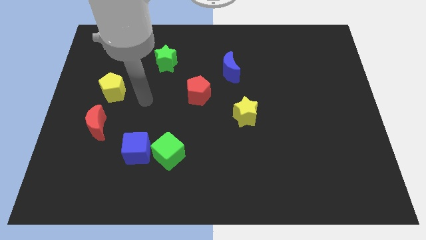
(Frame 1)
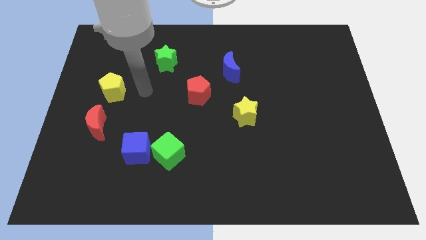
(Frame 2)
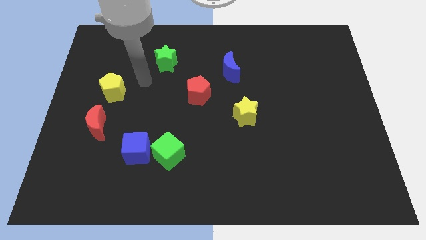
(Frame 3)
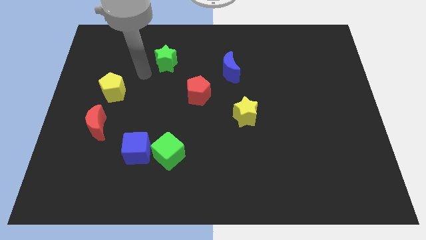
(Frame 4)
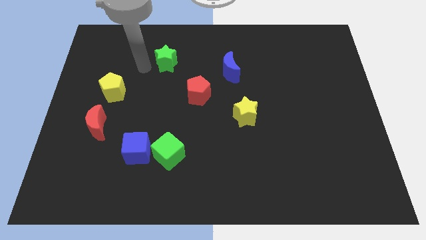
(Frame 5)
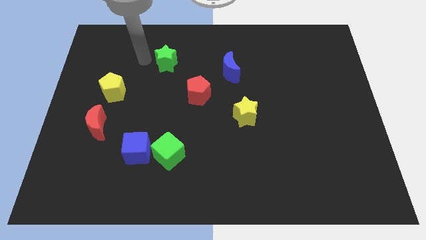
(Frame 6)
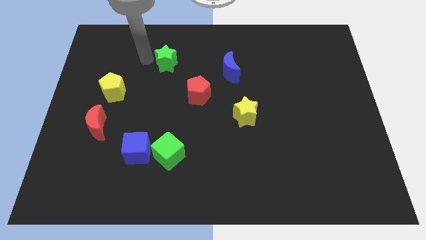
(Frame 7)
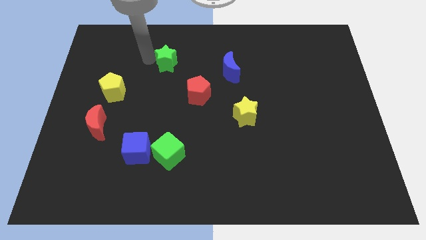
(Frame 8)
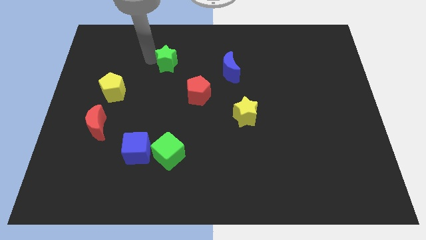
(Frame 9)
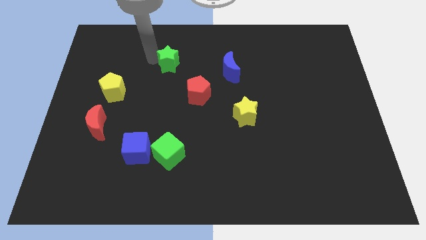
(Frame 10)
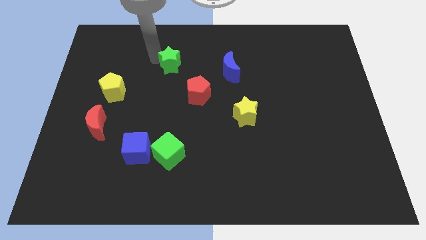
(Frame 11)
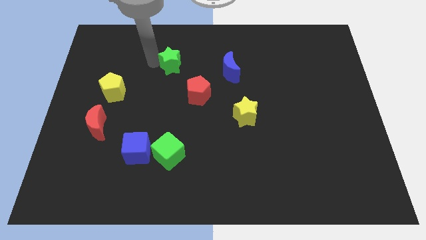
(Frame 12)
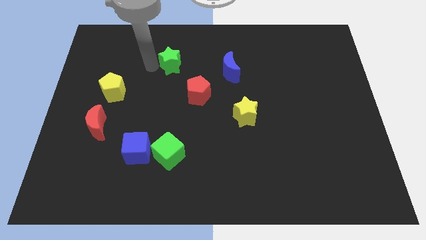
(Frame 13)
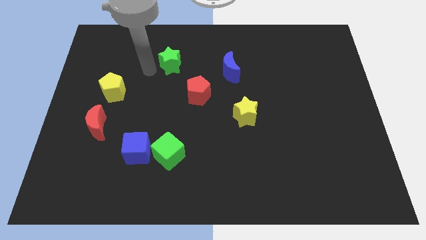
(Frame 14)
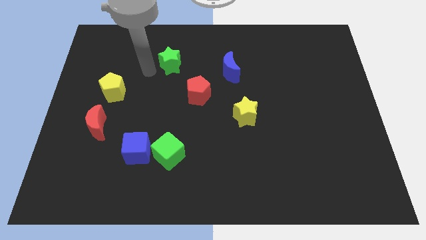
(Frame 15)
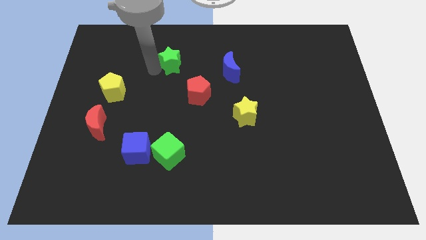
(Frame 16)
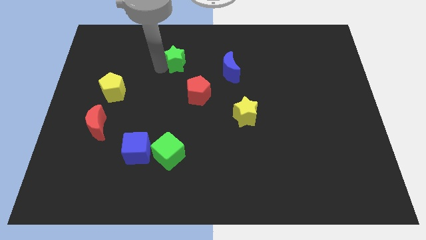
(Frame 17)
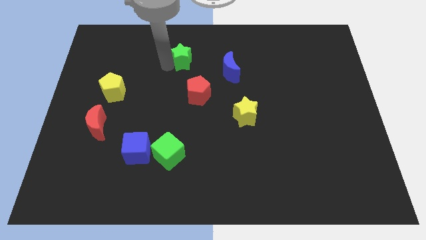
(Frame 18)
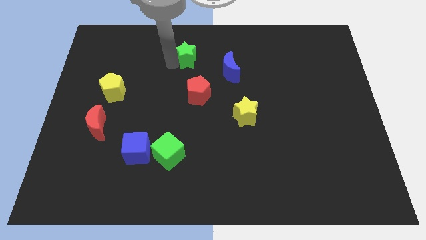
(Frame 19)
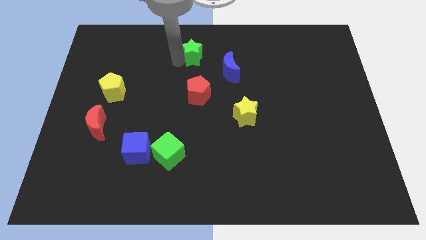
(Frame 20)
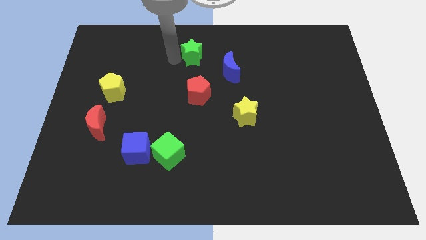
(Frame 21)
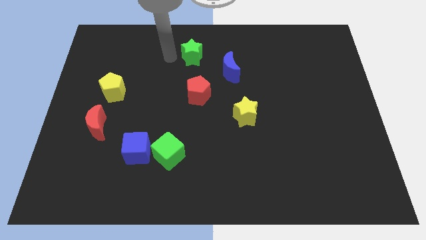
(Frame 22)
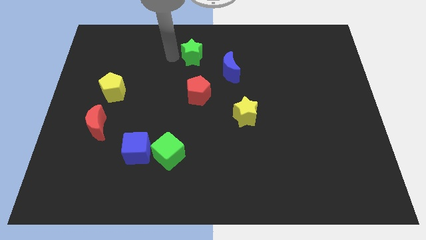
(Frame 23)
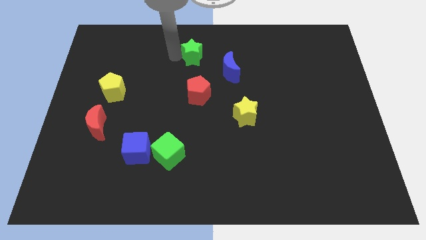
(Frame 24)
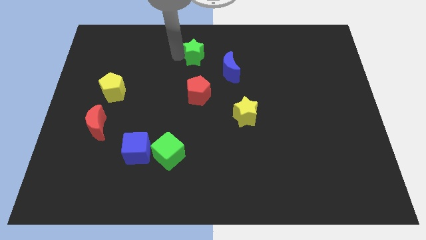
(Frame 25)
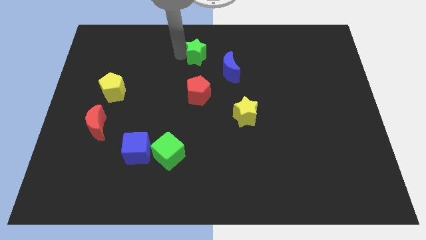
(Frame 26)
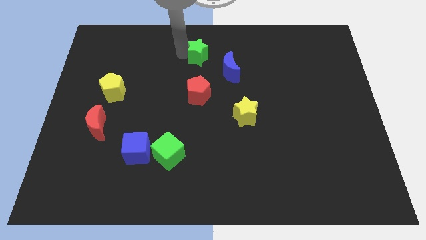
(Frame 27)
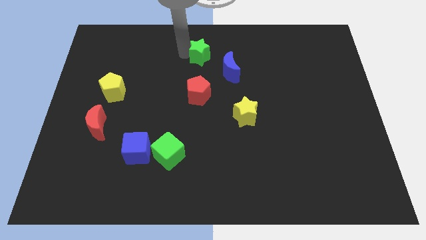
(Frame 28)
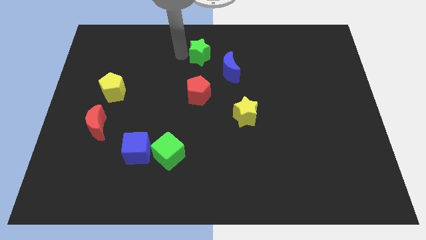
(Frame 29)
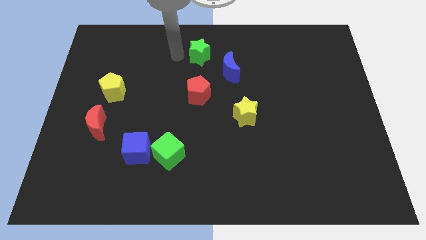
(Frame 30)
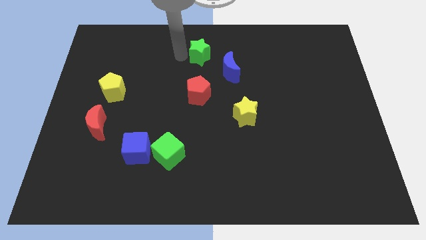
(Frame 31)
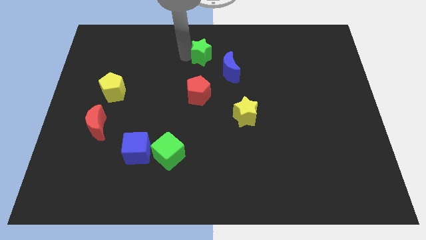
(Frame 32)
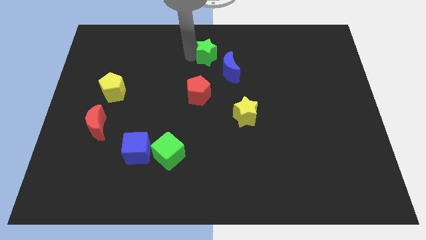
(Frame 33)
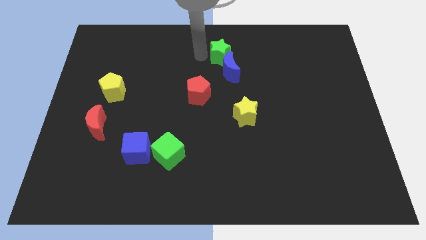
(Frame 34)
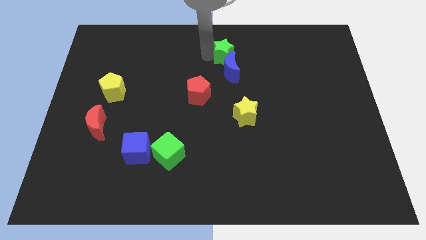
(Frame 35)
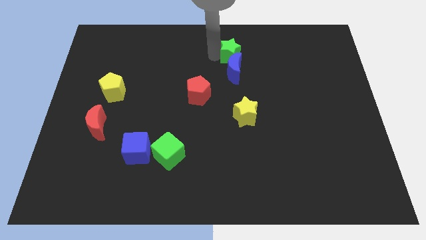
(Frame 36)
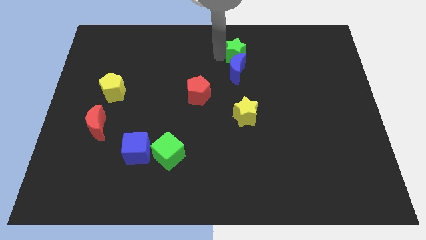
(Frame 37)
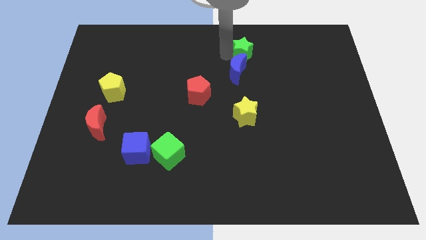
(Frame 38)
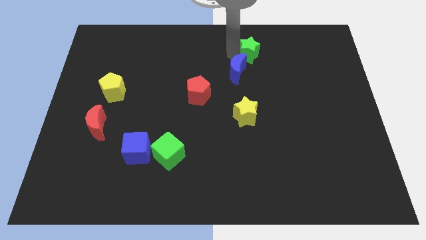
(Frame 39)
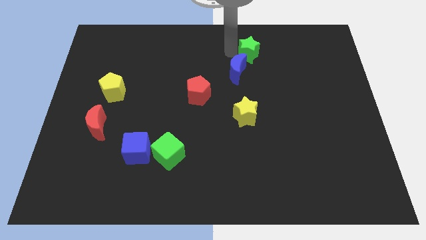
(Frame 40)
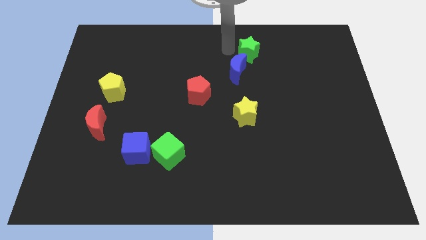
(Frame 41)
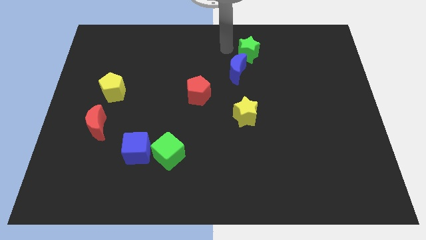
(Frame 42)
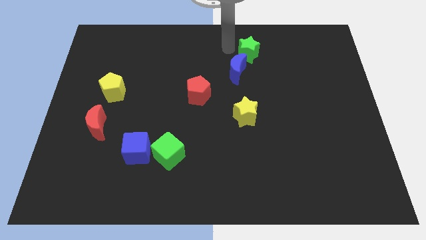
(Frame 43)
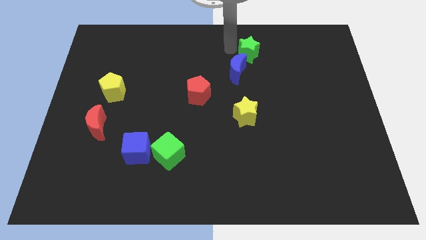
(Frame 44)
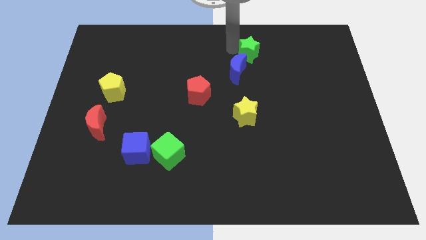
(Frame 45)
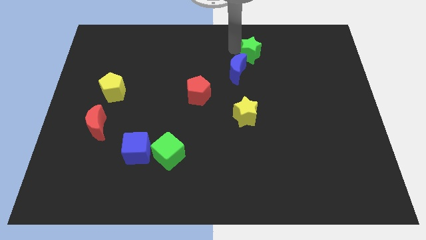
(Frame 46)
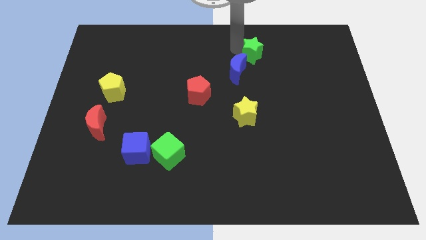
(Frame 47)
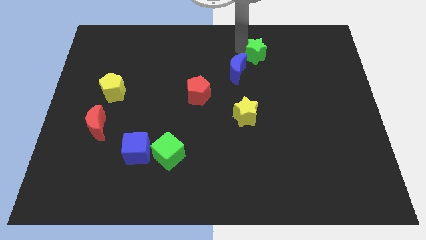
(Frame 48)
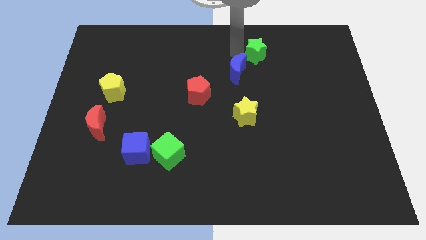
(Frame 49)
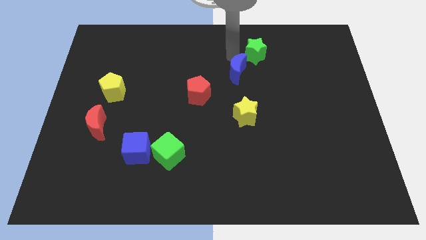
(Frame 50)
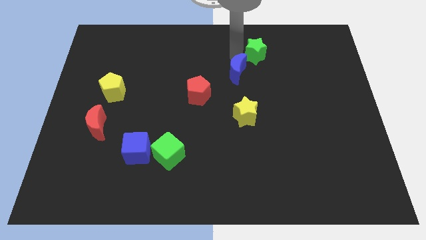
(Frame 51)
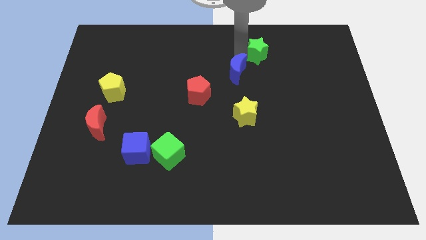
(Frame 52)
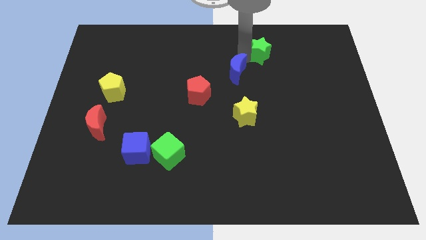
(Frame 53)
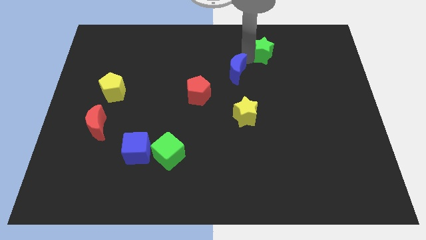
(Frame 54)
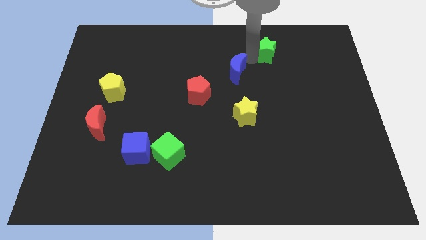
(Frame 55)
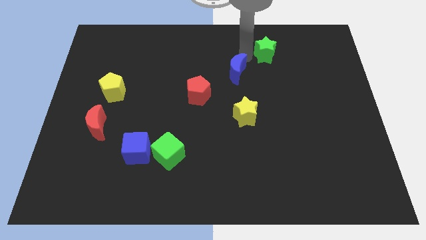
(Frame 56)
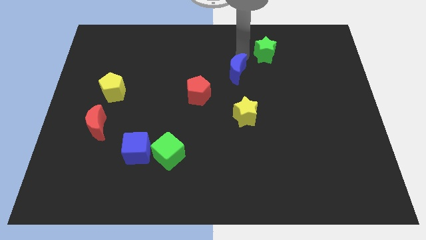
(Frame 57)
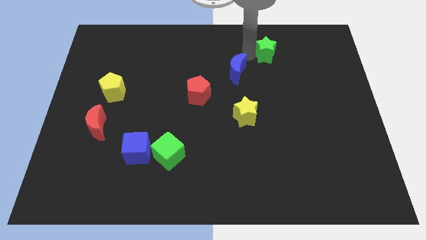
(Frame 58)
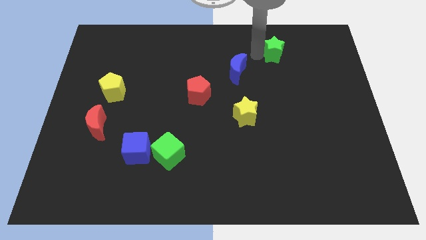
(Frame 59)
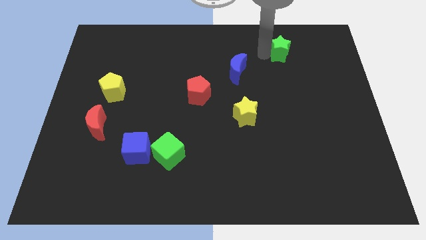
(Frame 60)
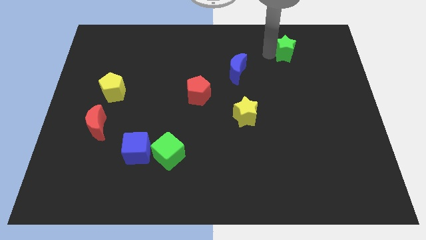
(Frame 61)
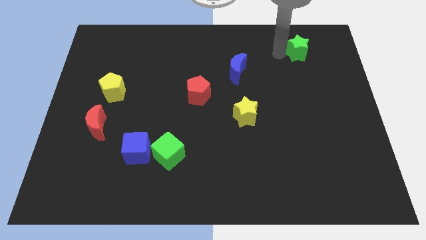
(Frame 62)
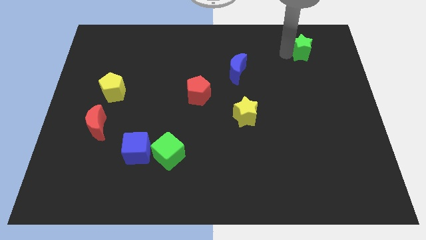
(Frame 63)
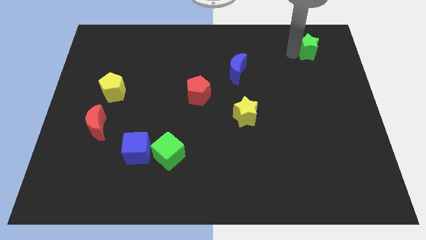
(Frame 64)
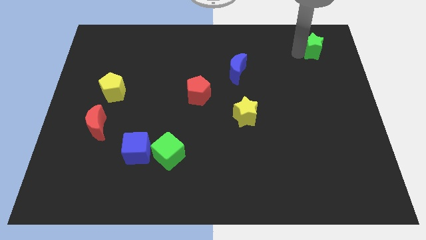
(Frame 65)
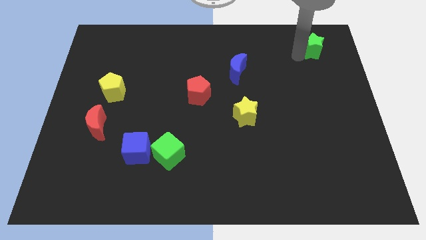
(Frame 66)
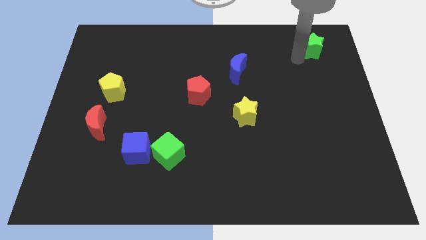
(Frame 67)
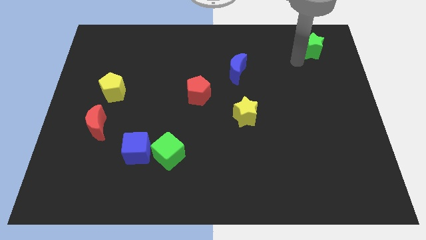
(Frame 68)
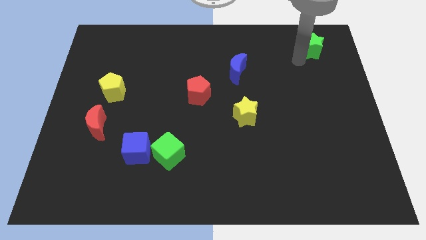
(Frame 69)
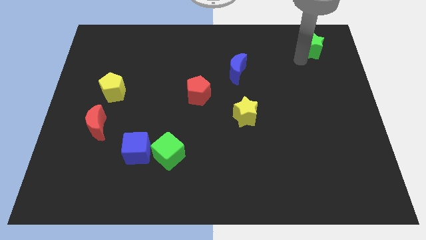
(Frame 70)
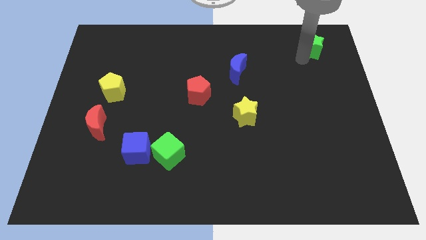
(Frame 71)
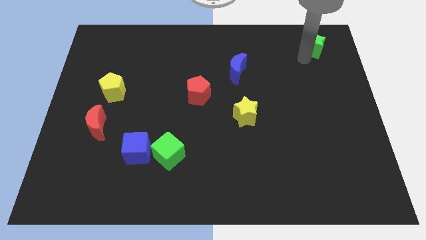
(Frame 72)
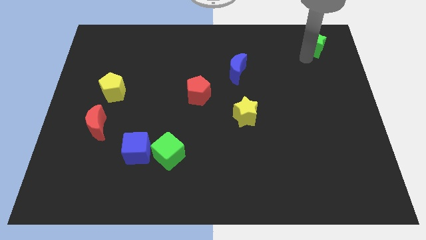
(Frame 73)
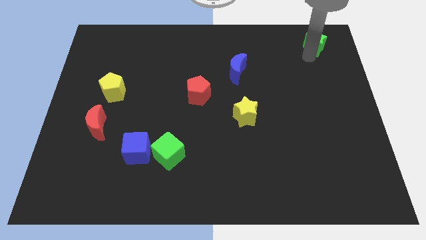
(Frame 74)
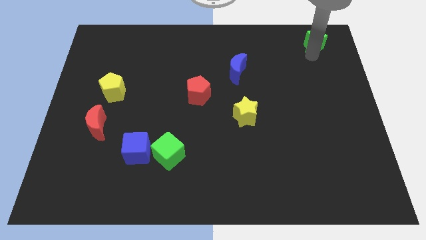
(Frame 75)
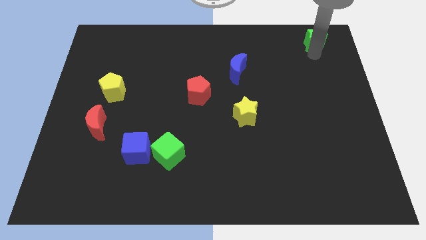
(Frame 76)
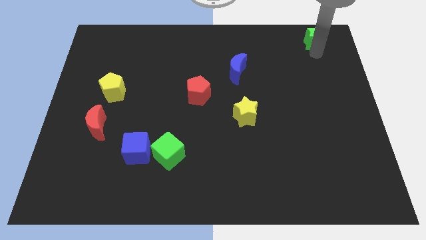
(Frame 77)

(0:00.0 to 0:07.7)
push the green star to the top right corner
